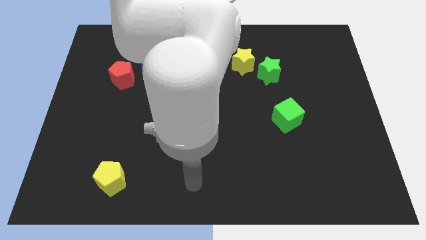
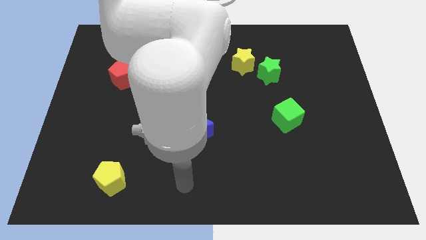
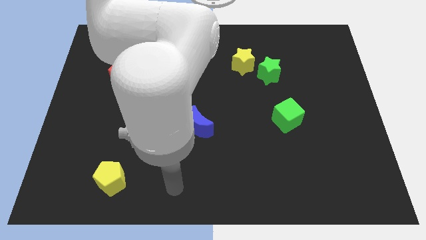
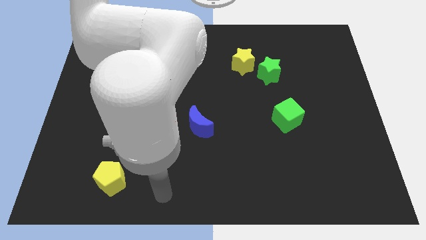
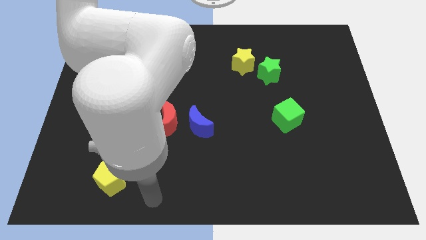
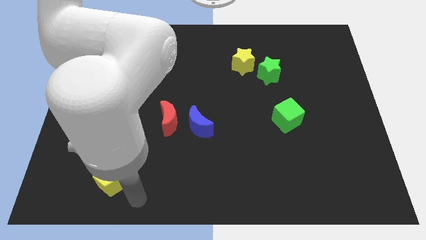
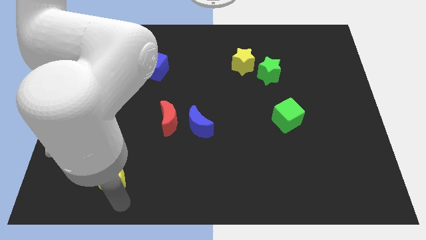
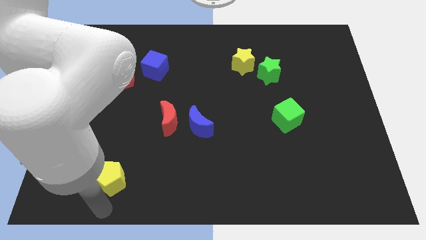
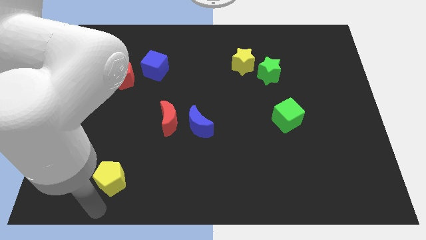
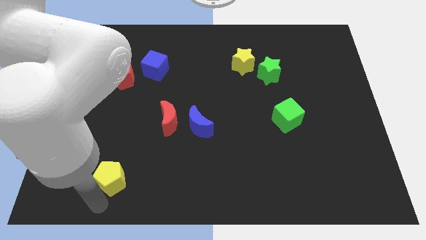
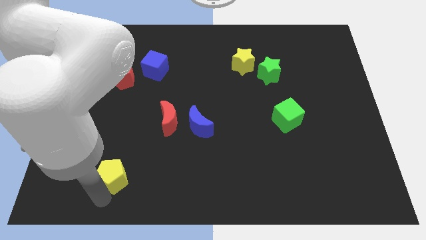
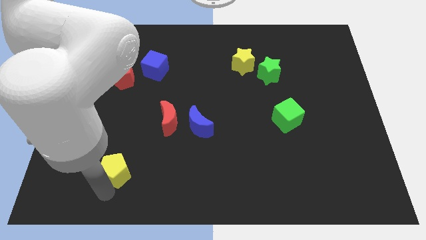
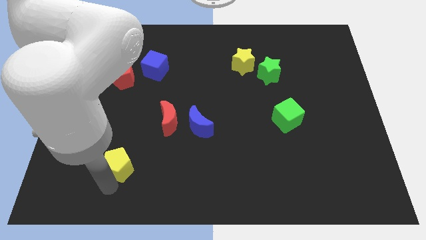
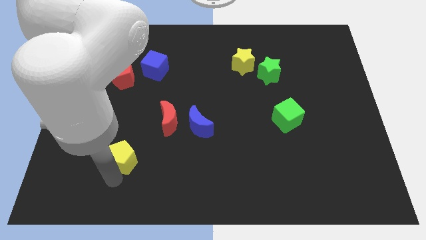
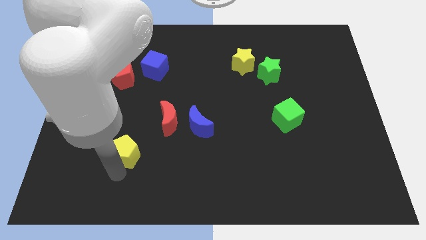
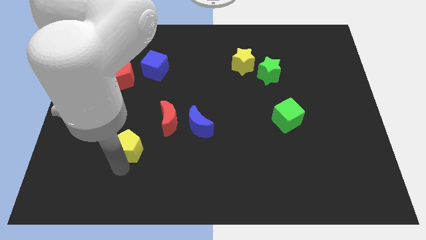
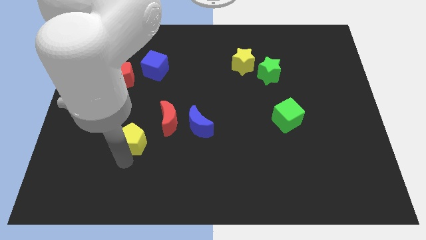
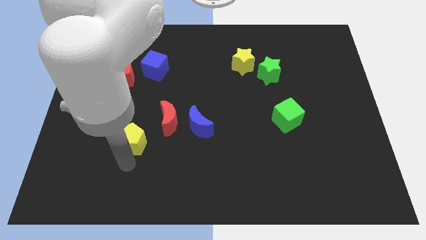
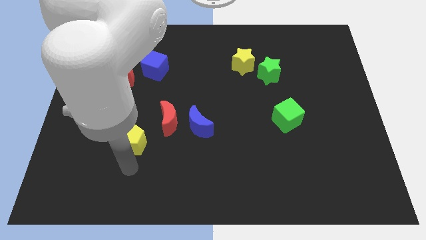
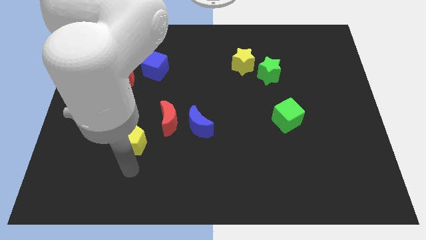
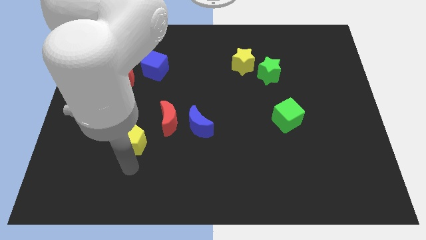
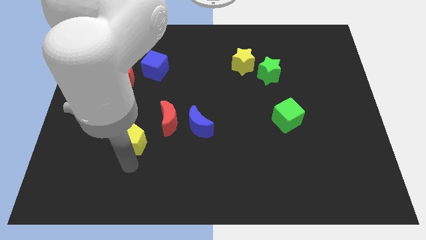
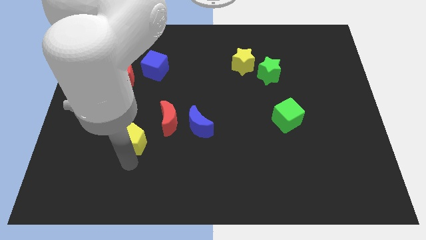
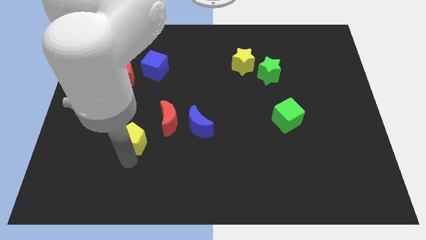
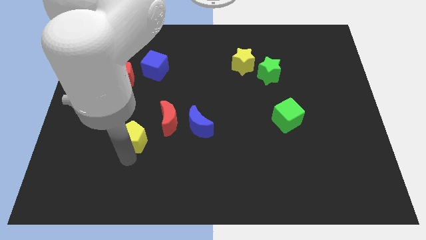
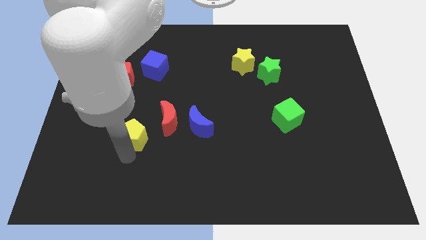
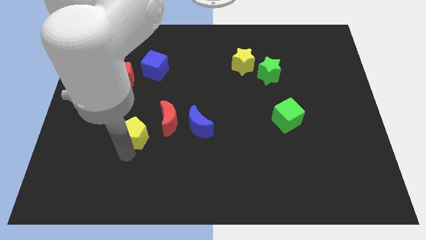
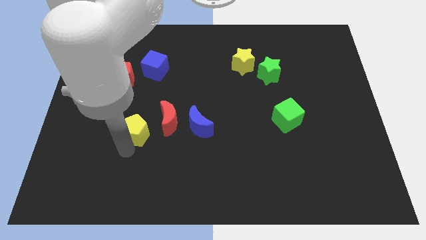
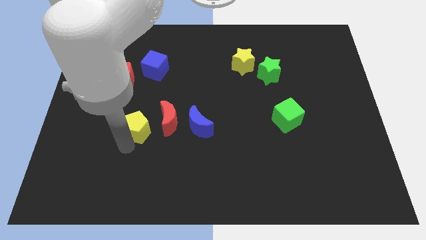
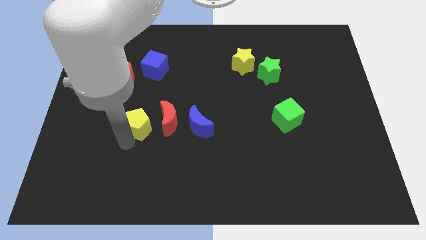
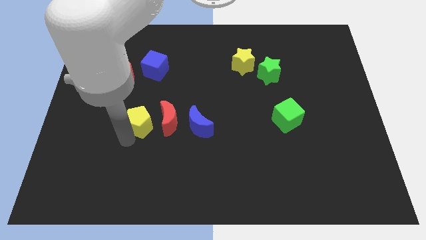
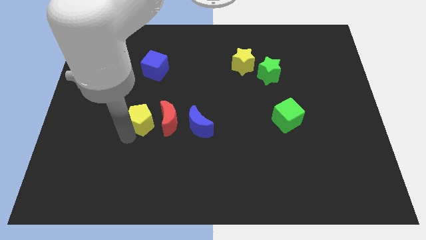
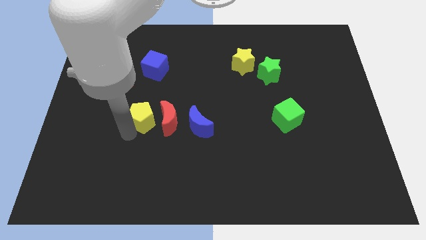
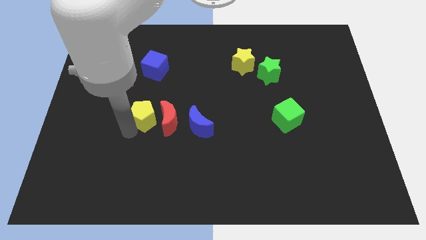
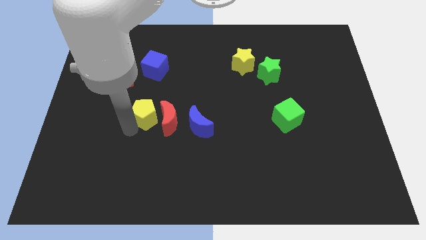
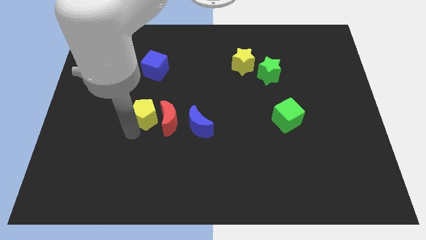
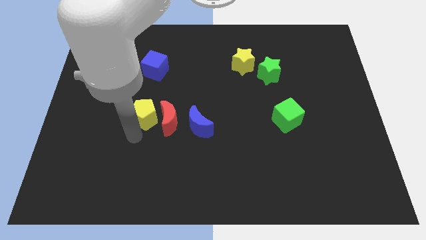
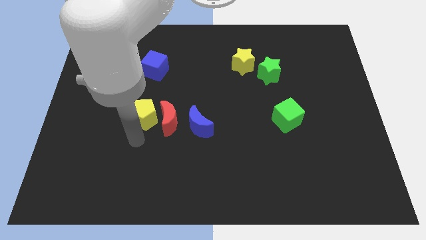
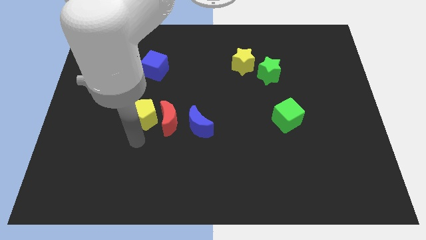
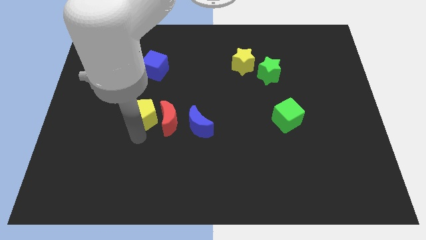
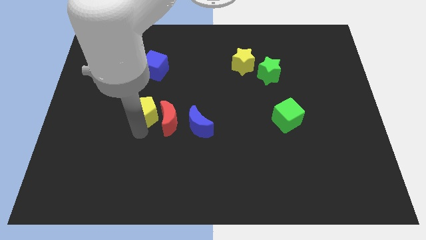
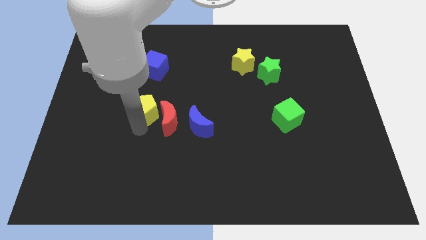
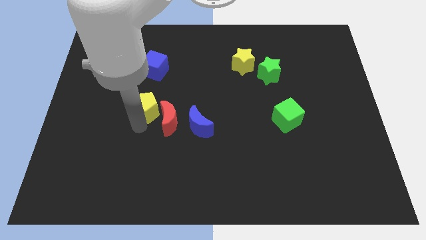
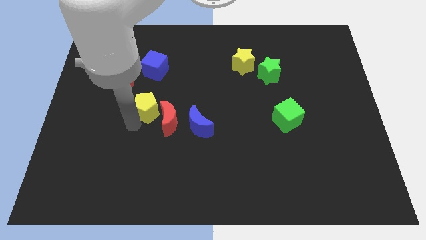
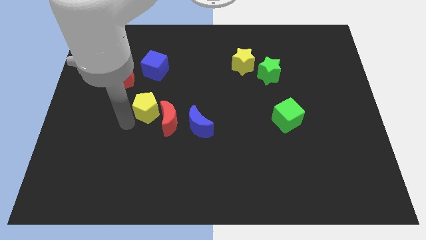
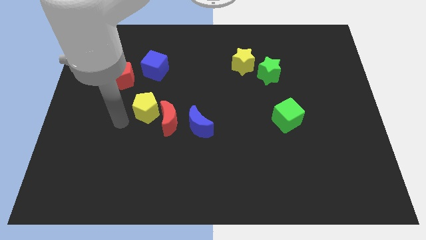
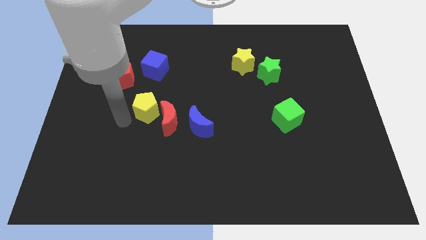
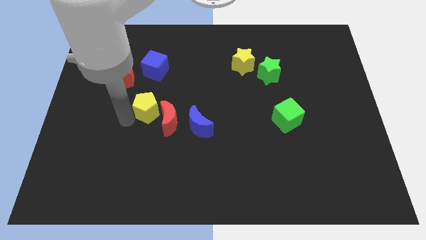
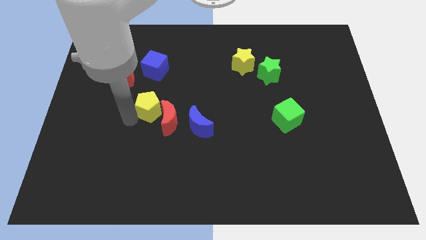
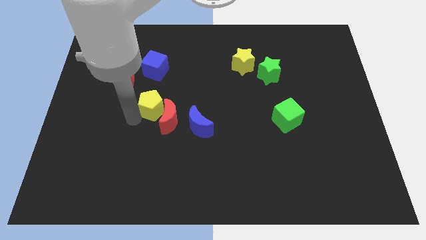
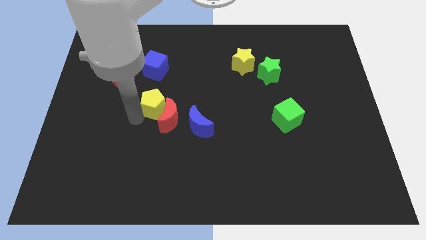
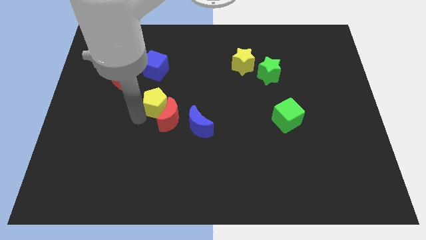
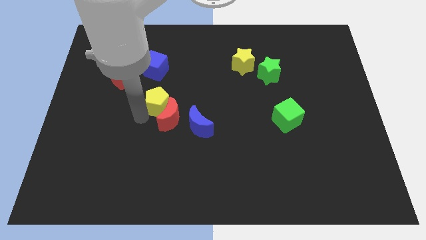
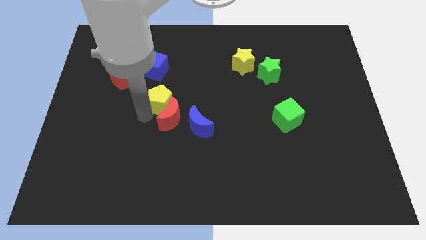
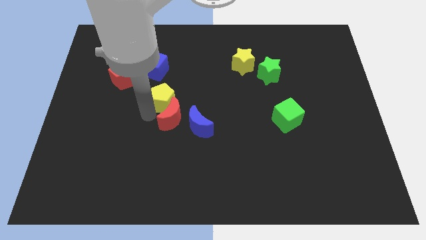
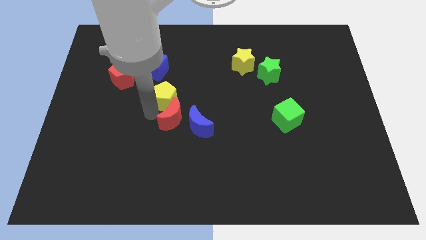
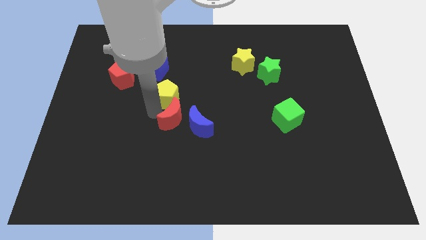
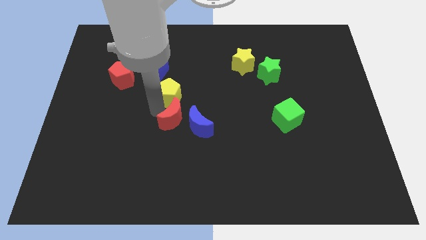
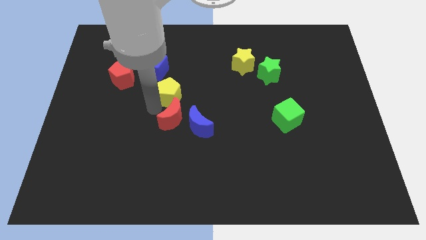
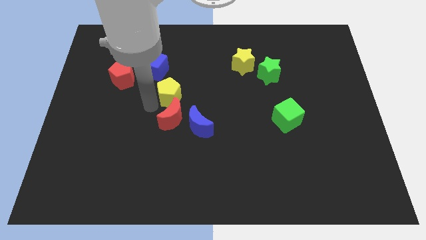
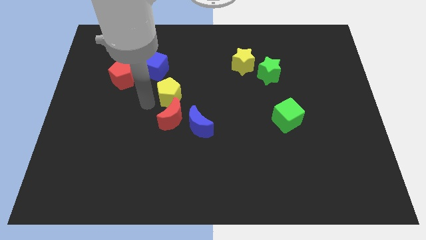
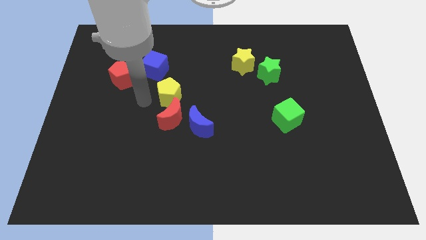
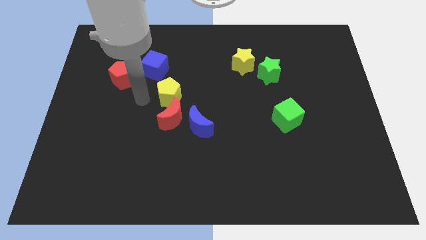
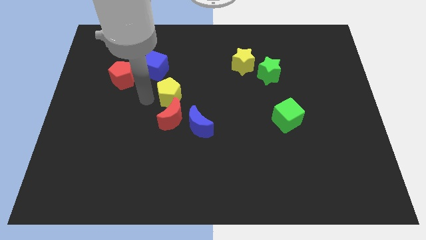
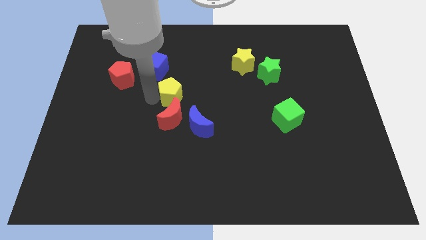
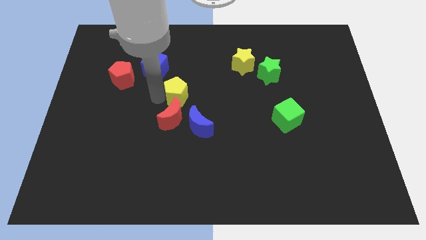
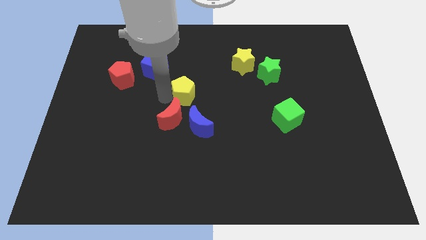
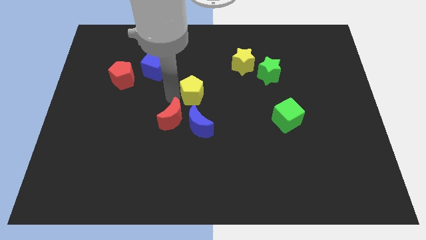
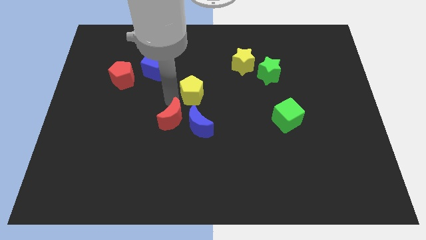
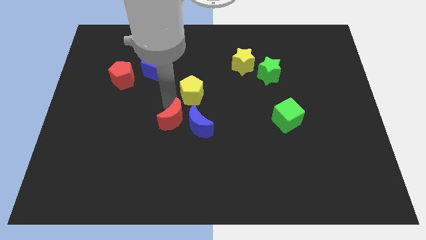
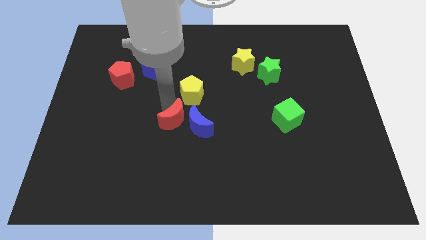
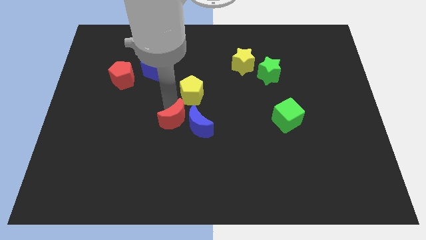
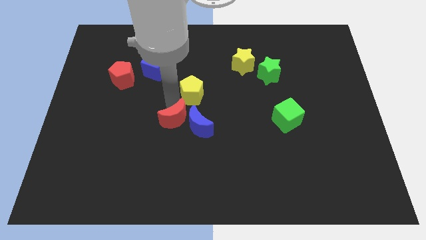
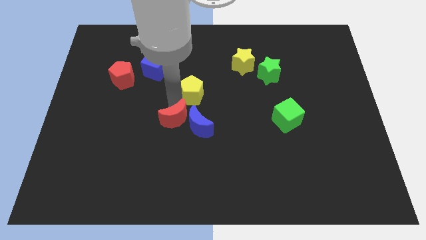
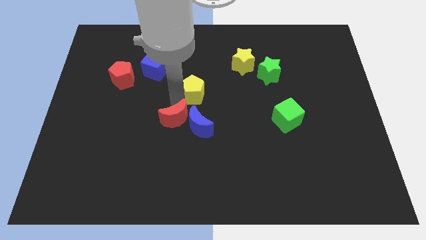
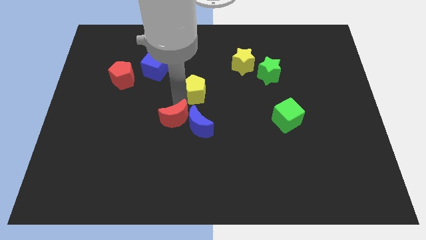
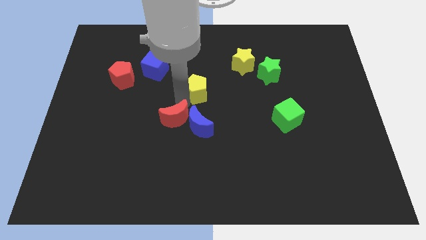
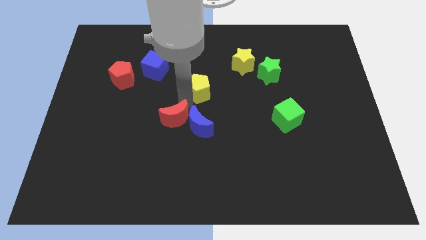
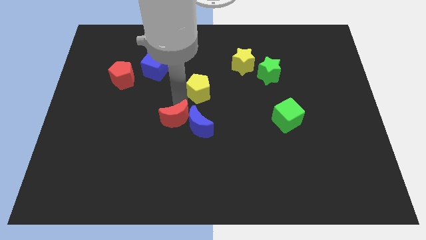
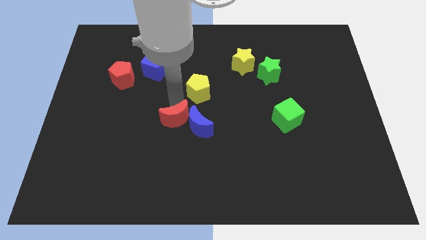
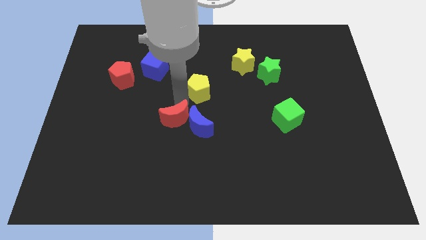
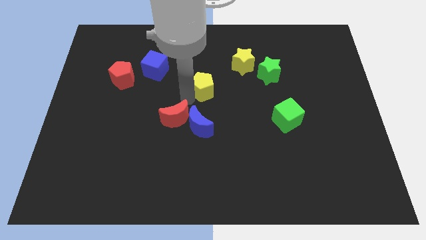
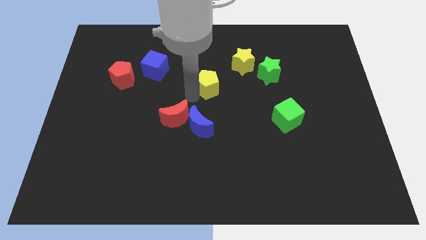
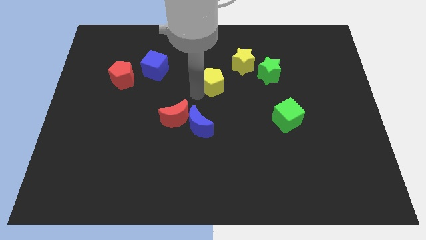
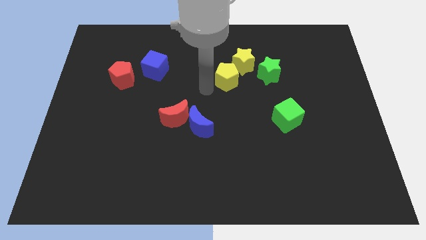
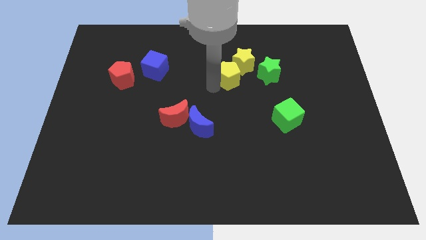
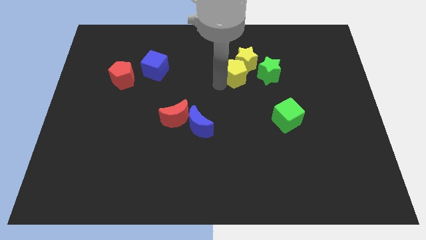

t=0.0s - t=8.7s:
move the yellow pentagon next to the yellow star
